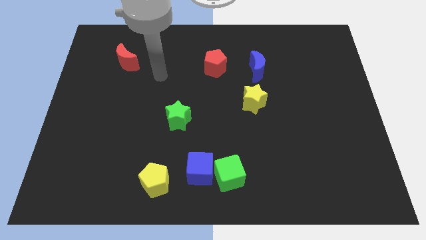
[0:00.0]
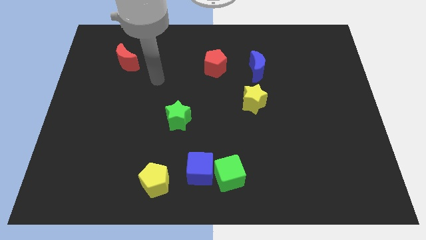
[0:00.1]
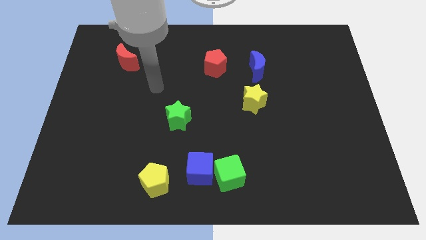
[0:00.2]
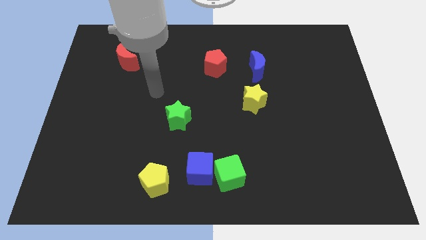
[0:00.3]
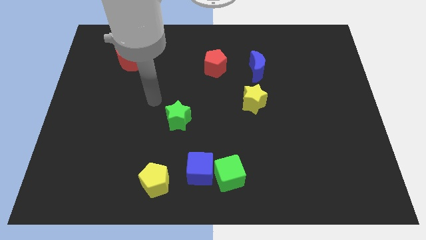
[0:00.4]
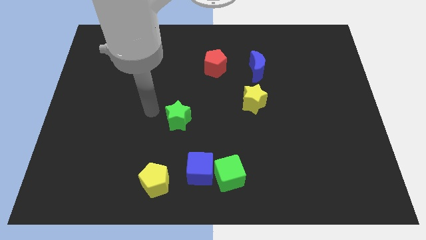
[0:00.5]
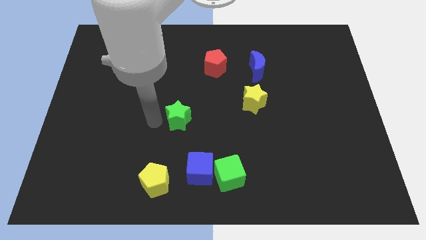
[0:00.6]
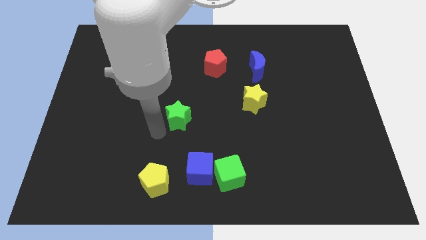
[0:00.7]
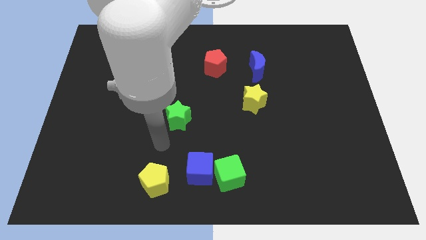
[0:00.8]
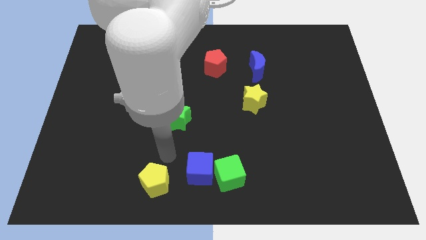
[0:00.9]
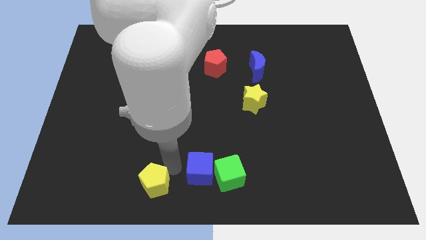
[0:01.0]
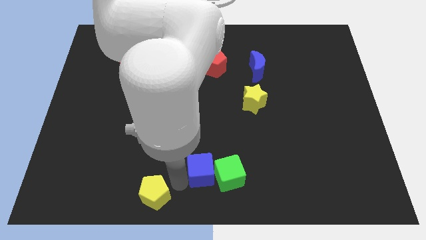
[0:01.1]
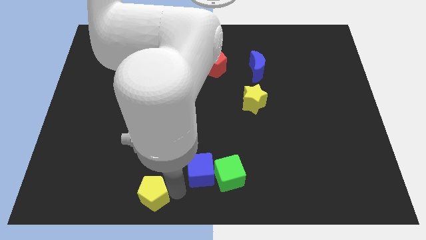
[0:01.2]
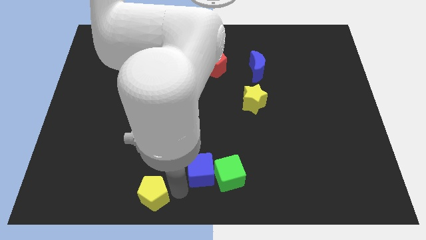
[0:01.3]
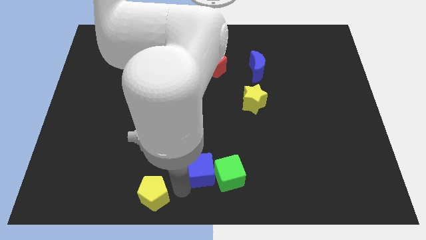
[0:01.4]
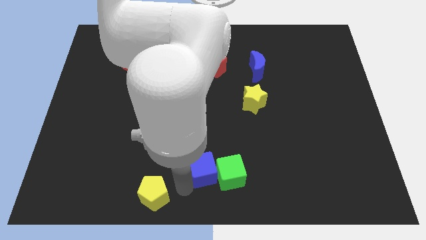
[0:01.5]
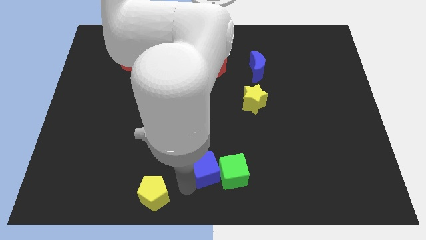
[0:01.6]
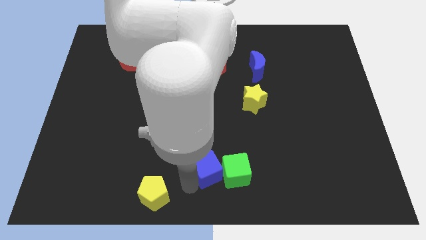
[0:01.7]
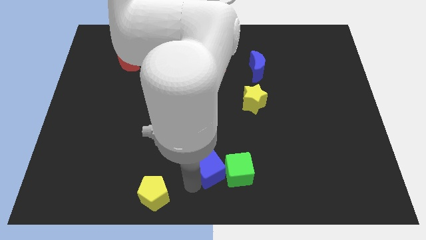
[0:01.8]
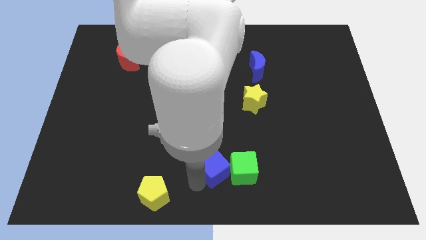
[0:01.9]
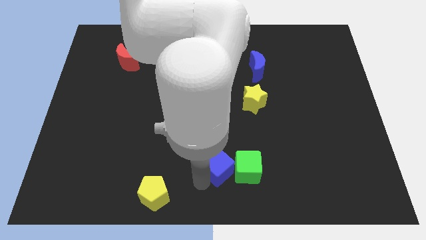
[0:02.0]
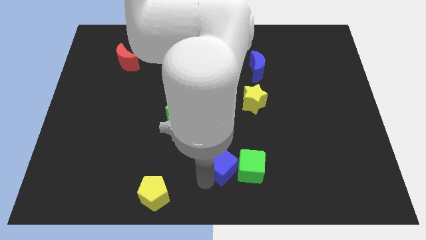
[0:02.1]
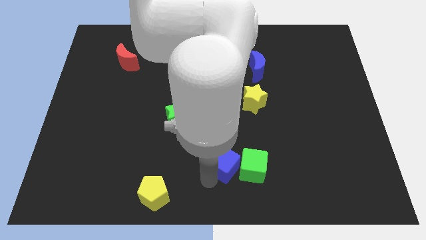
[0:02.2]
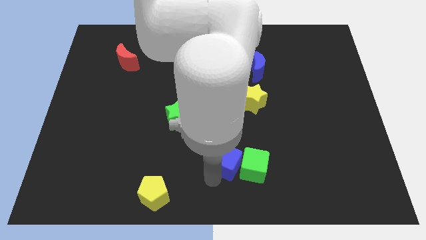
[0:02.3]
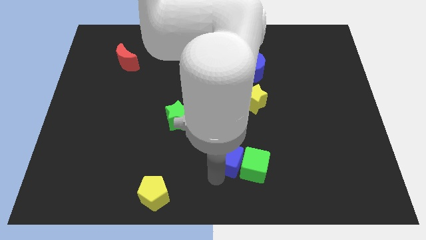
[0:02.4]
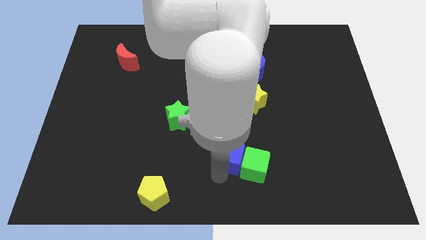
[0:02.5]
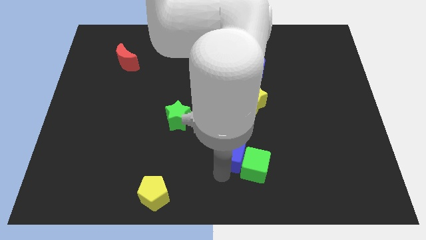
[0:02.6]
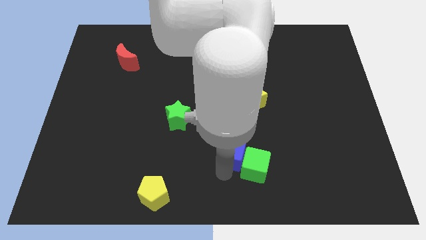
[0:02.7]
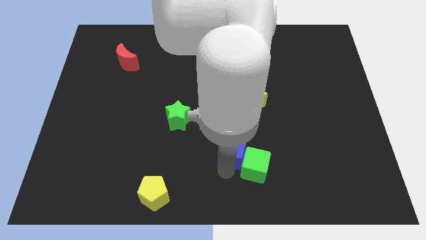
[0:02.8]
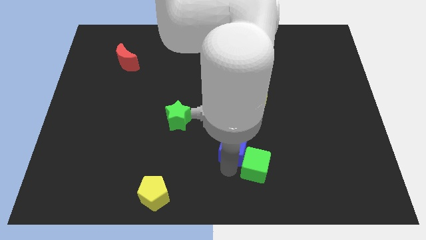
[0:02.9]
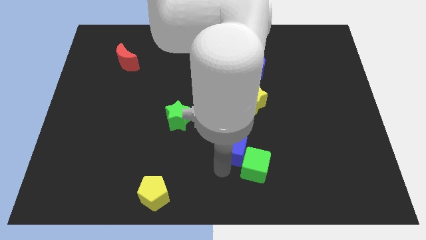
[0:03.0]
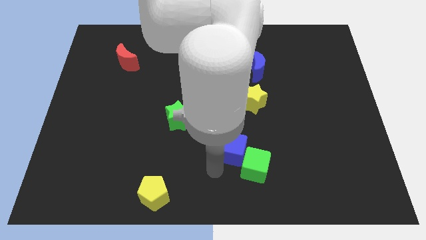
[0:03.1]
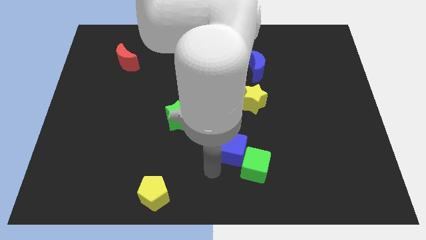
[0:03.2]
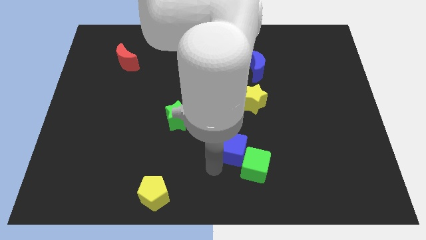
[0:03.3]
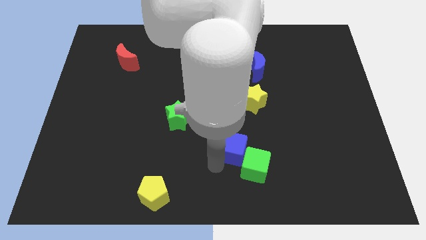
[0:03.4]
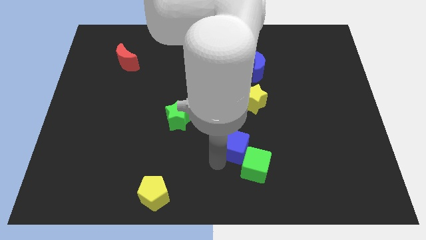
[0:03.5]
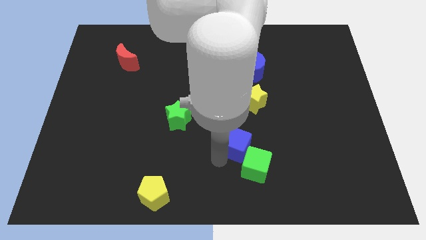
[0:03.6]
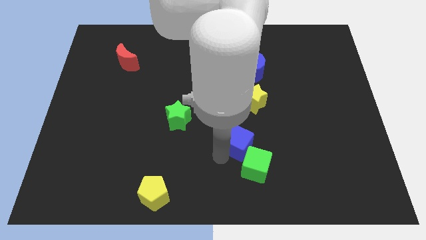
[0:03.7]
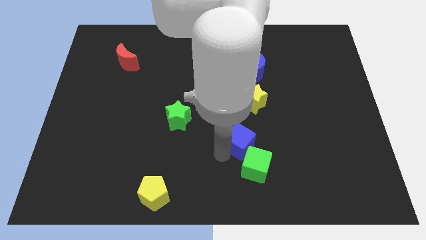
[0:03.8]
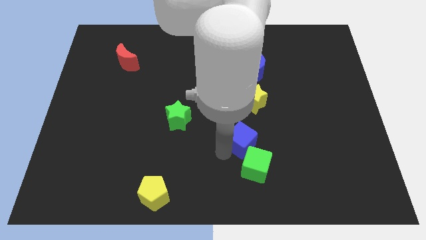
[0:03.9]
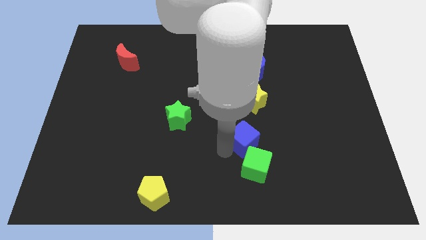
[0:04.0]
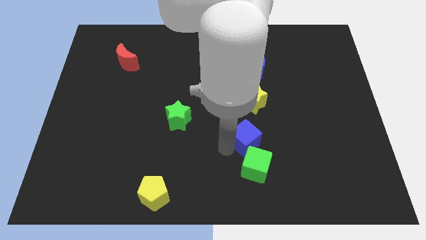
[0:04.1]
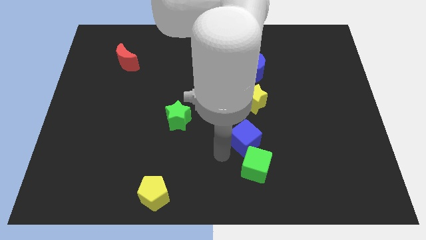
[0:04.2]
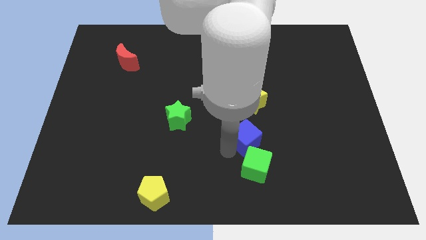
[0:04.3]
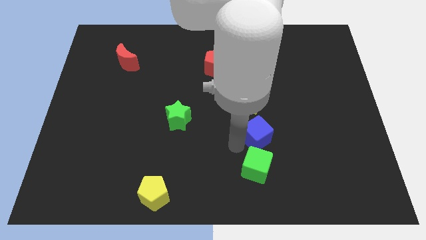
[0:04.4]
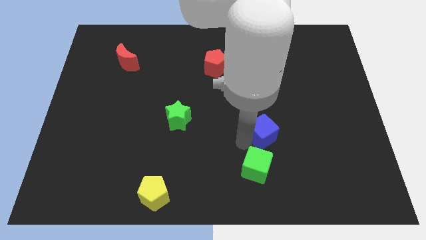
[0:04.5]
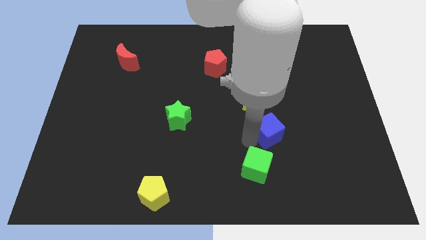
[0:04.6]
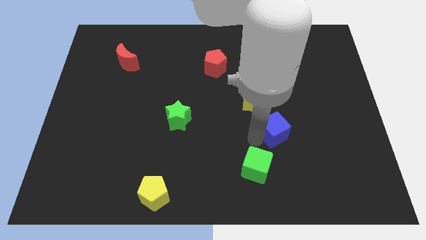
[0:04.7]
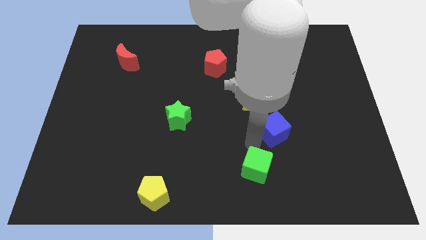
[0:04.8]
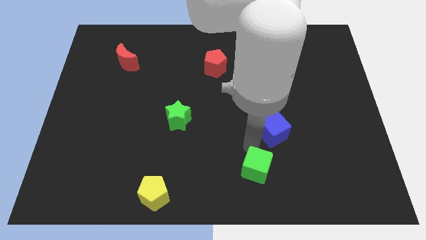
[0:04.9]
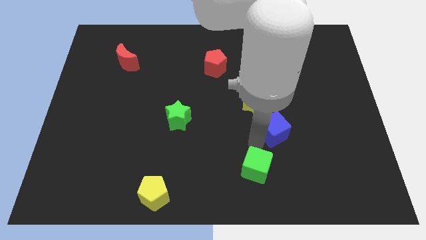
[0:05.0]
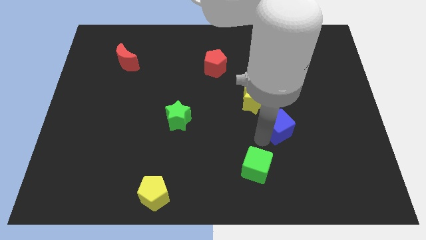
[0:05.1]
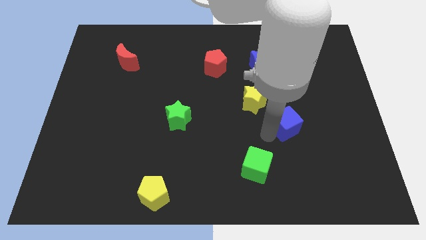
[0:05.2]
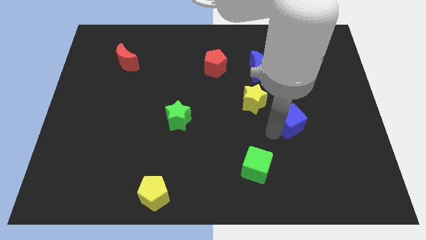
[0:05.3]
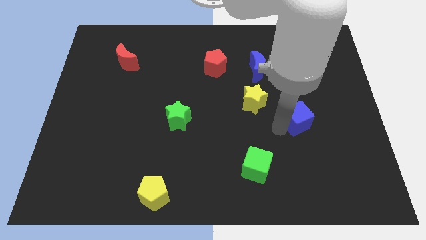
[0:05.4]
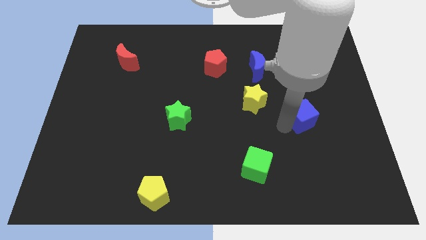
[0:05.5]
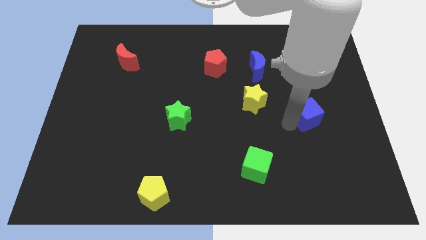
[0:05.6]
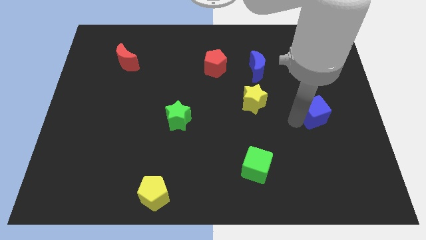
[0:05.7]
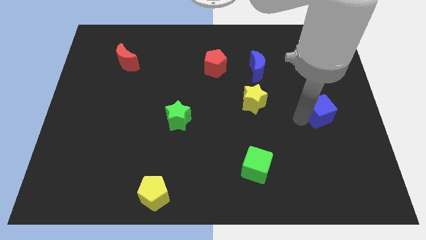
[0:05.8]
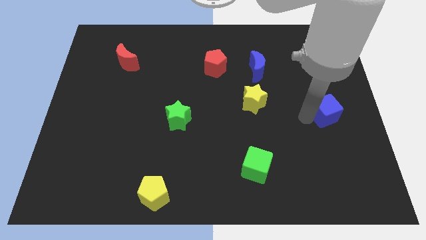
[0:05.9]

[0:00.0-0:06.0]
push the blue cube to the center right

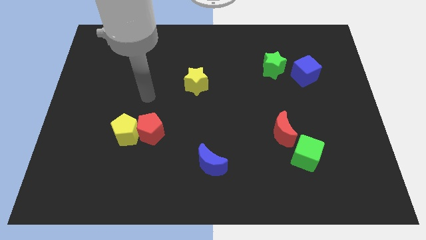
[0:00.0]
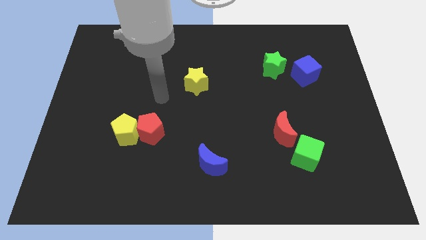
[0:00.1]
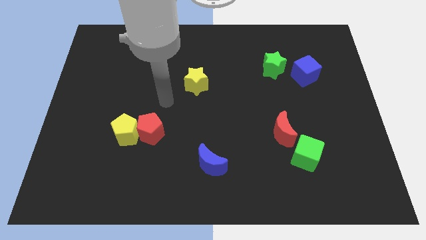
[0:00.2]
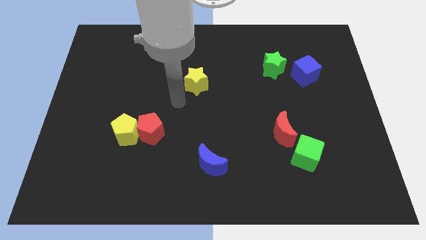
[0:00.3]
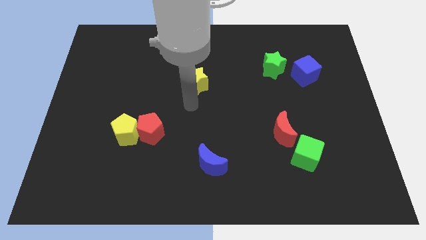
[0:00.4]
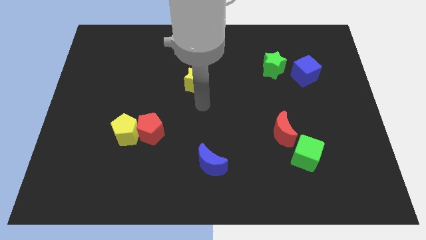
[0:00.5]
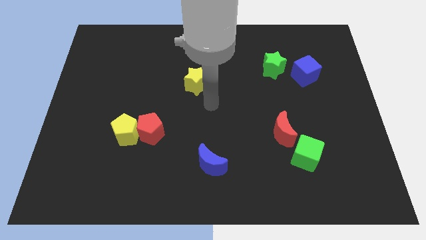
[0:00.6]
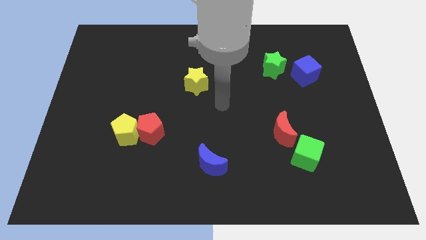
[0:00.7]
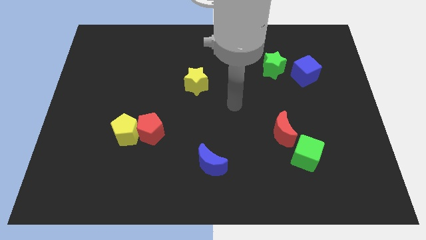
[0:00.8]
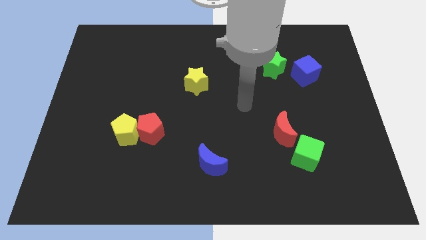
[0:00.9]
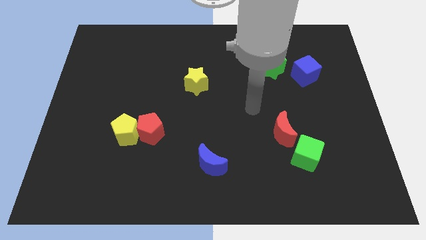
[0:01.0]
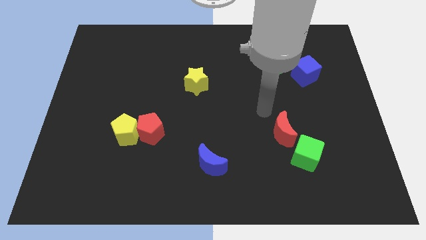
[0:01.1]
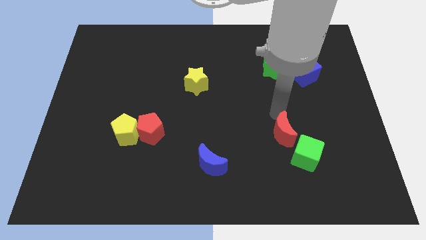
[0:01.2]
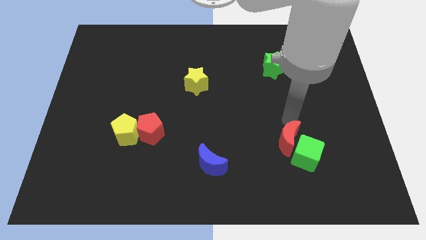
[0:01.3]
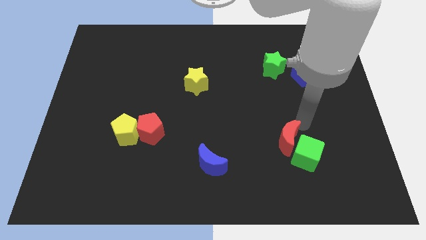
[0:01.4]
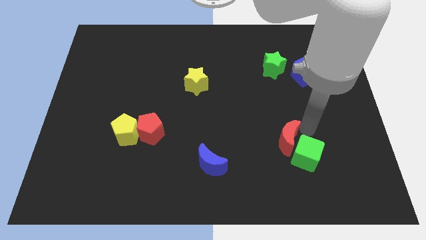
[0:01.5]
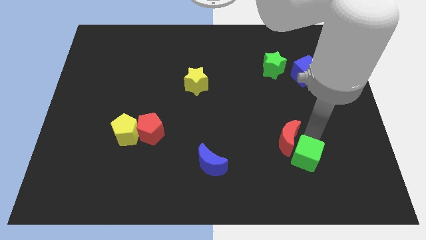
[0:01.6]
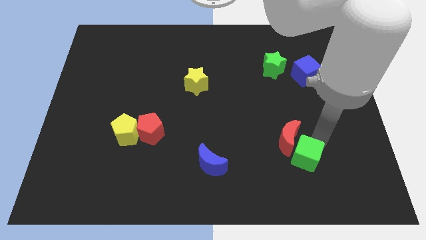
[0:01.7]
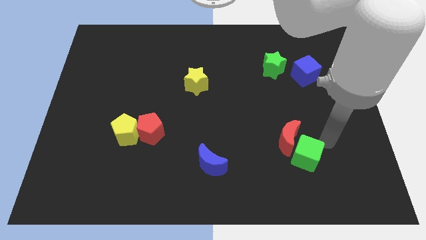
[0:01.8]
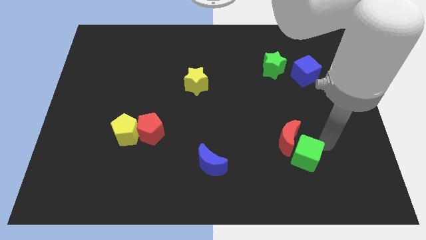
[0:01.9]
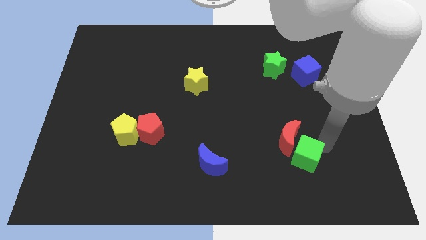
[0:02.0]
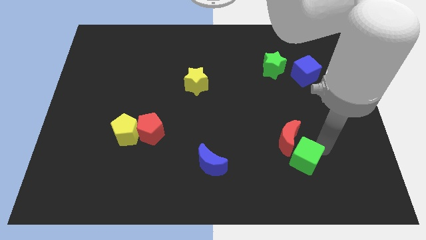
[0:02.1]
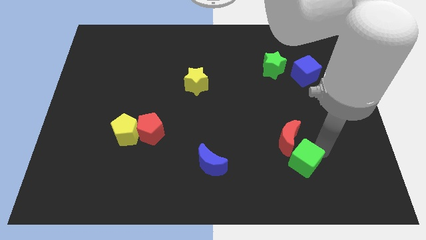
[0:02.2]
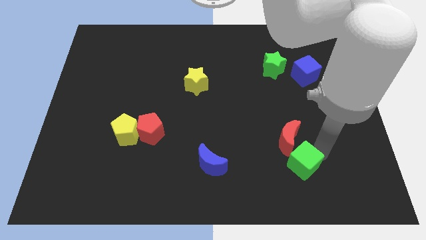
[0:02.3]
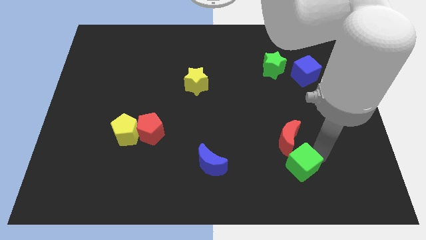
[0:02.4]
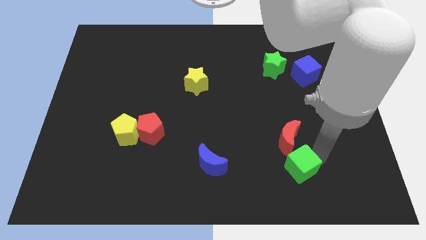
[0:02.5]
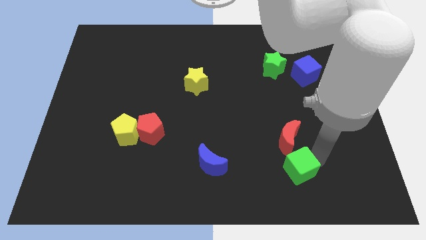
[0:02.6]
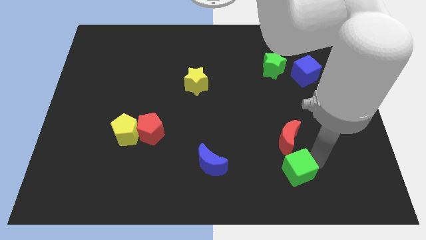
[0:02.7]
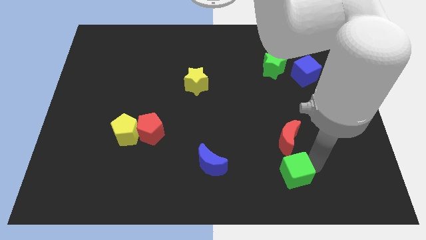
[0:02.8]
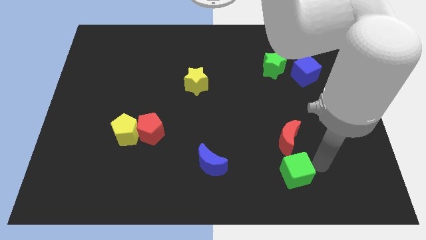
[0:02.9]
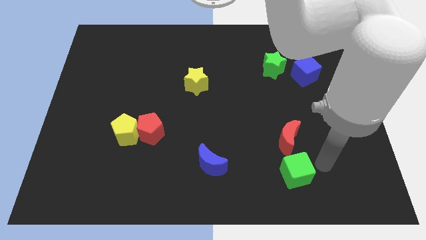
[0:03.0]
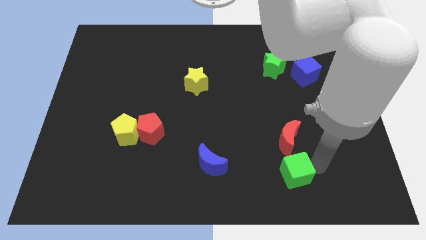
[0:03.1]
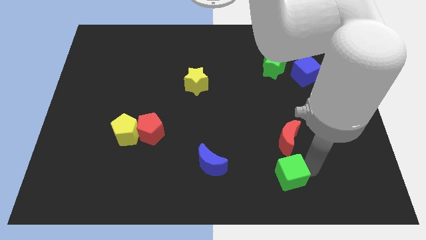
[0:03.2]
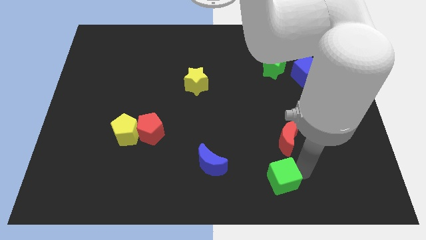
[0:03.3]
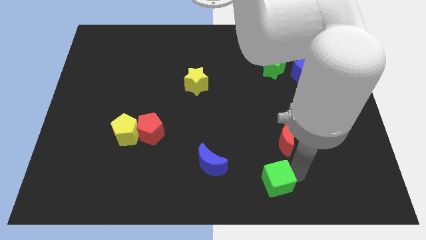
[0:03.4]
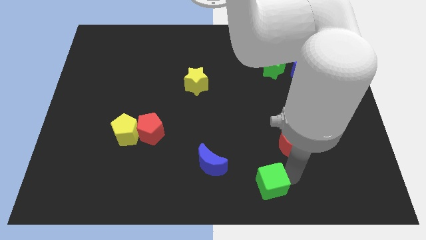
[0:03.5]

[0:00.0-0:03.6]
put the green cube to the bottom
